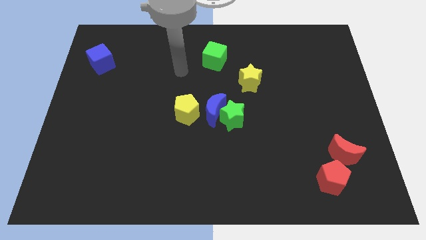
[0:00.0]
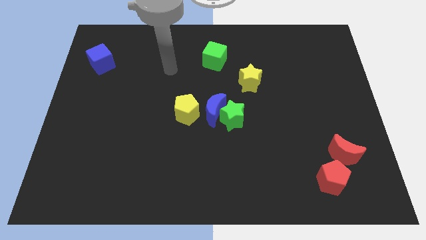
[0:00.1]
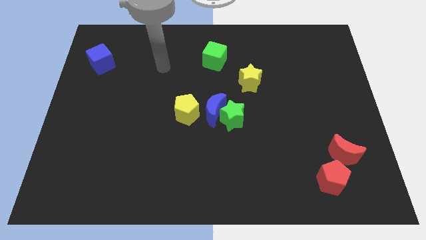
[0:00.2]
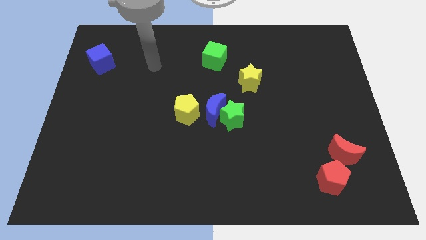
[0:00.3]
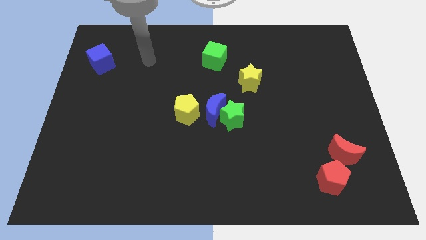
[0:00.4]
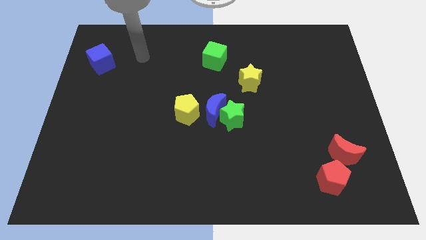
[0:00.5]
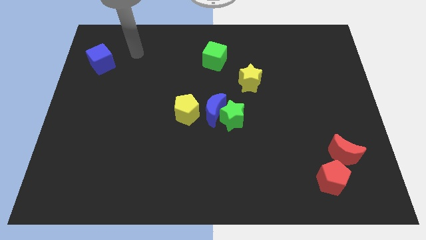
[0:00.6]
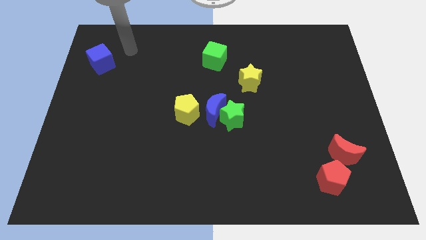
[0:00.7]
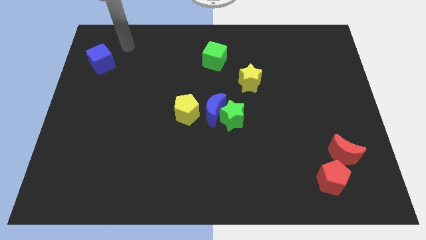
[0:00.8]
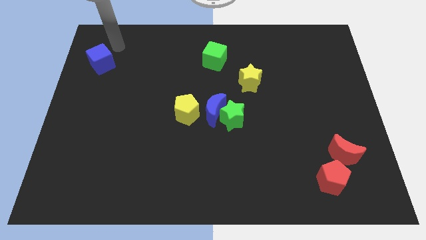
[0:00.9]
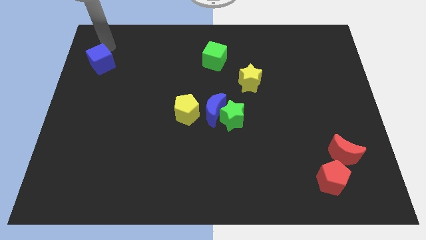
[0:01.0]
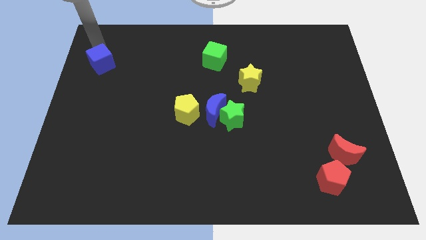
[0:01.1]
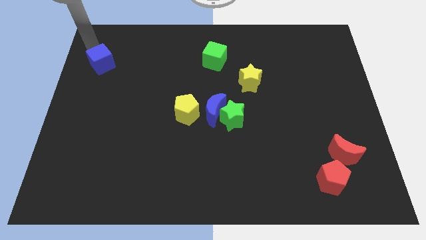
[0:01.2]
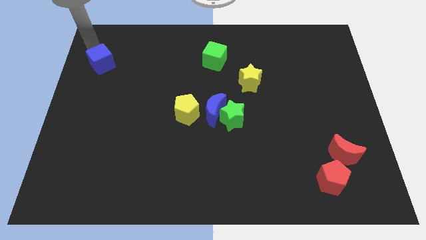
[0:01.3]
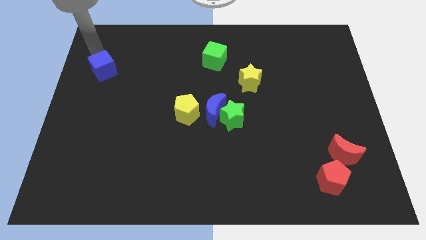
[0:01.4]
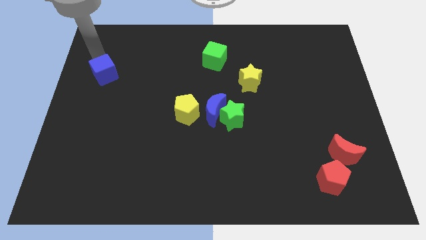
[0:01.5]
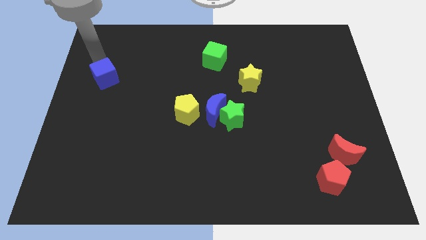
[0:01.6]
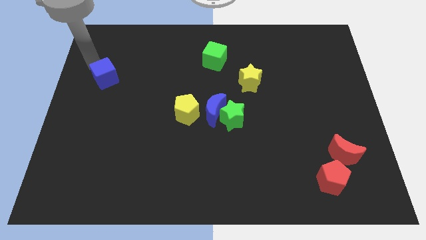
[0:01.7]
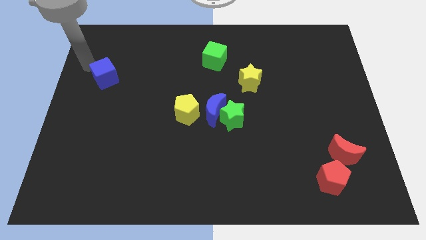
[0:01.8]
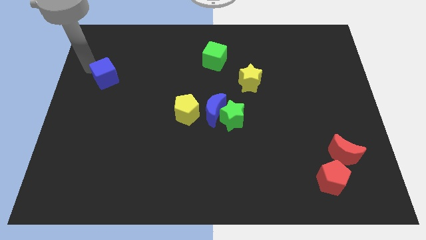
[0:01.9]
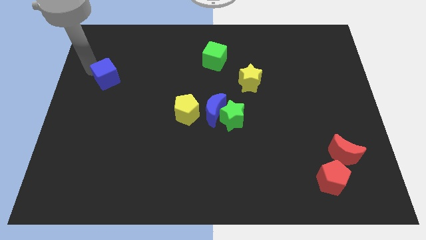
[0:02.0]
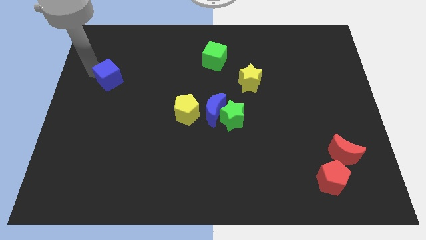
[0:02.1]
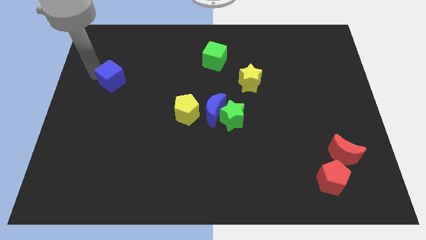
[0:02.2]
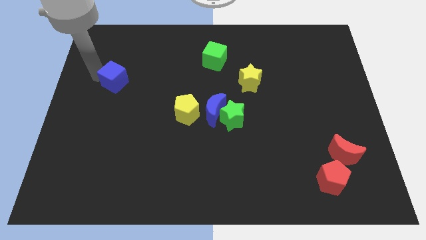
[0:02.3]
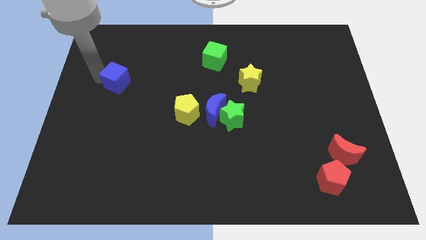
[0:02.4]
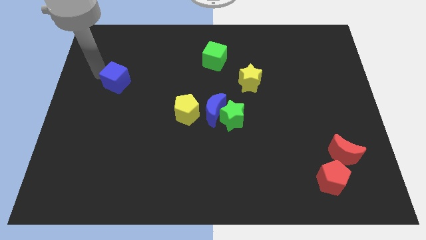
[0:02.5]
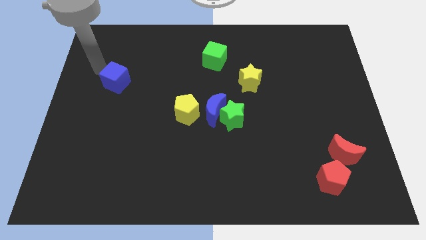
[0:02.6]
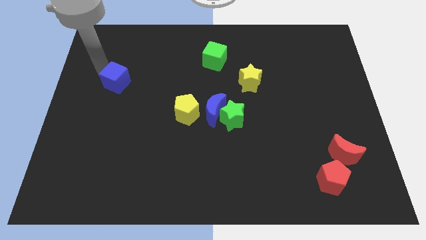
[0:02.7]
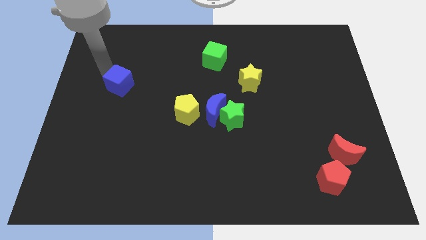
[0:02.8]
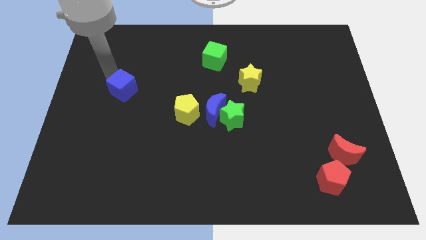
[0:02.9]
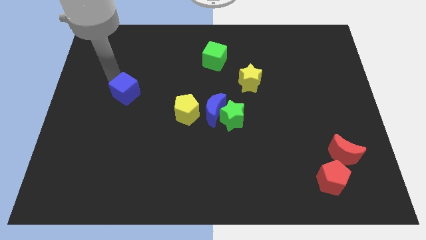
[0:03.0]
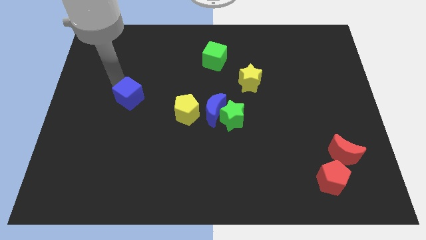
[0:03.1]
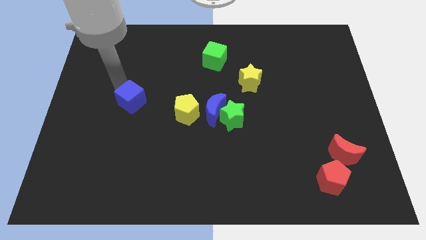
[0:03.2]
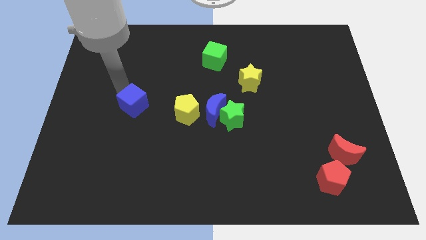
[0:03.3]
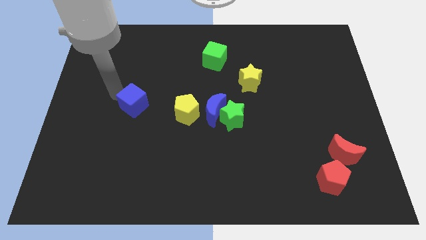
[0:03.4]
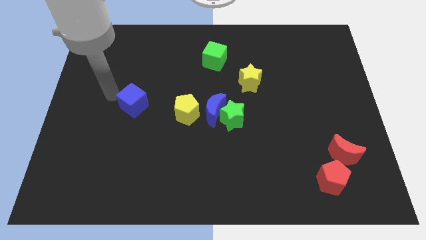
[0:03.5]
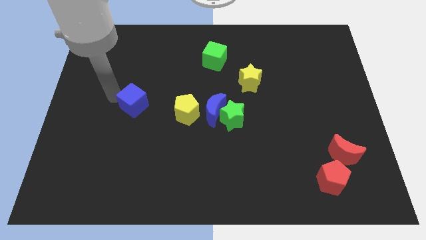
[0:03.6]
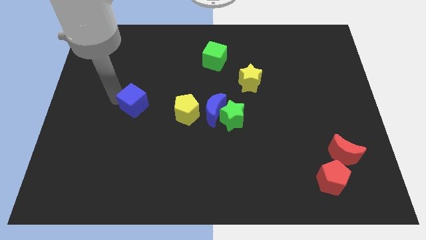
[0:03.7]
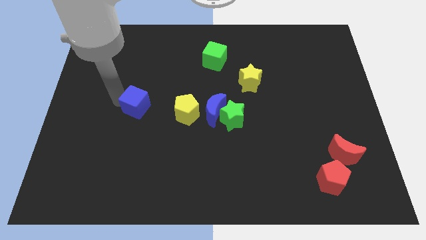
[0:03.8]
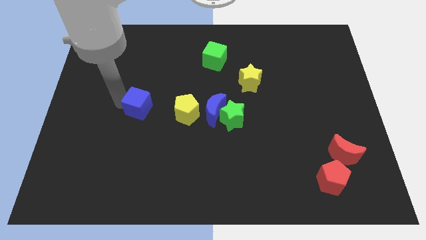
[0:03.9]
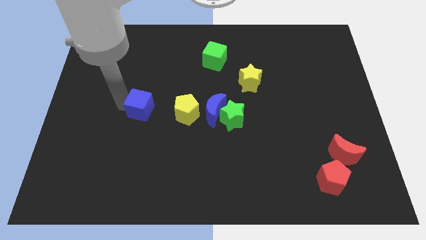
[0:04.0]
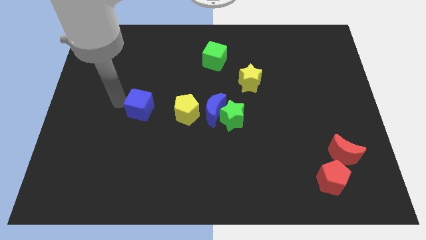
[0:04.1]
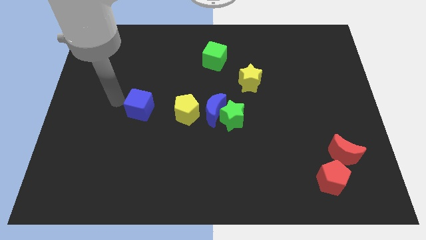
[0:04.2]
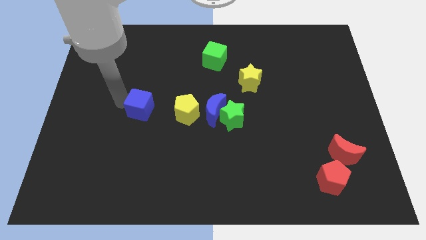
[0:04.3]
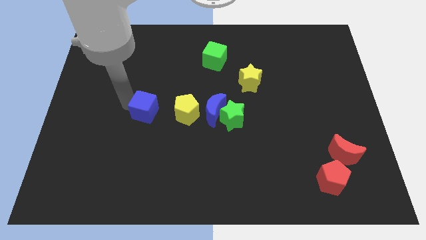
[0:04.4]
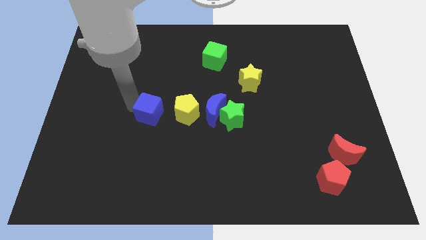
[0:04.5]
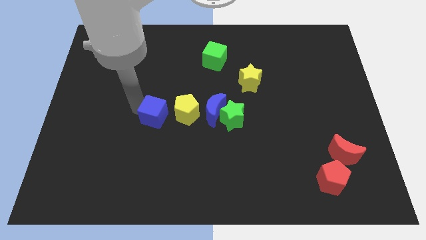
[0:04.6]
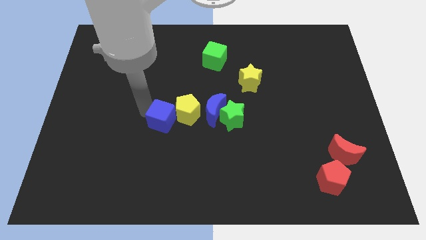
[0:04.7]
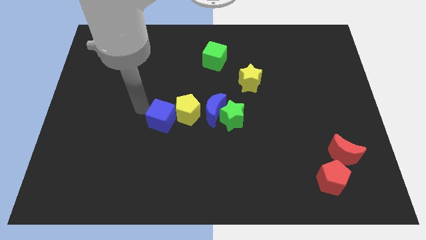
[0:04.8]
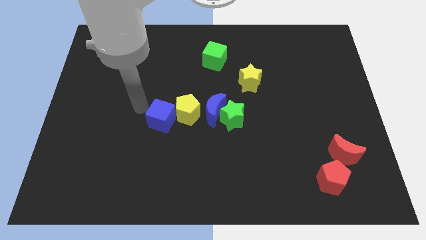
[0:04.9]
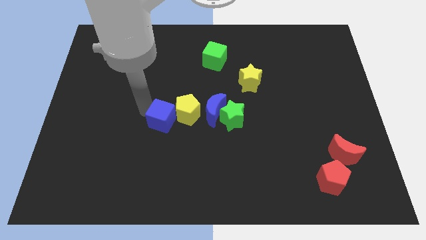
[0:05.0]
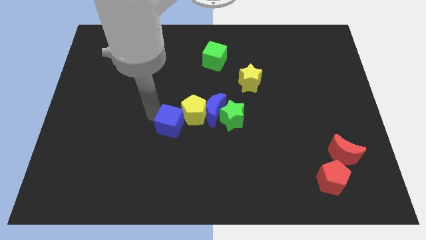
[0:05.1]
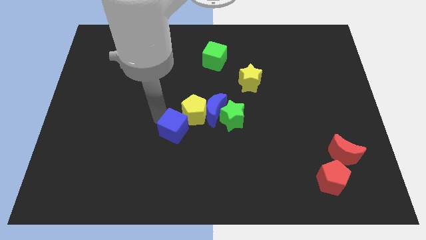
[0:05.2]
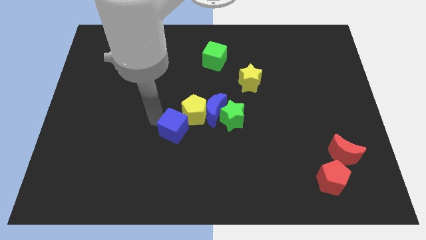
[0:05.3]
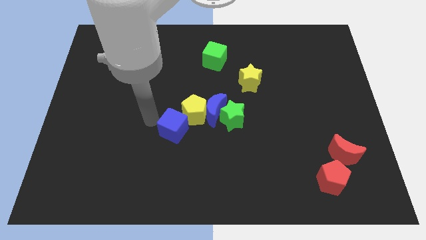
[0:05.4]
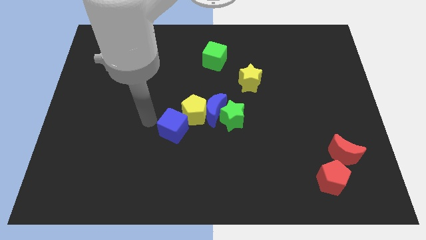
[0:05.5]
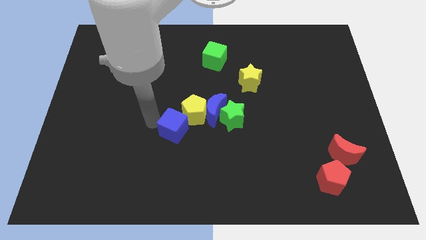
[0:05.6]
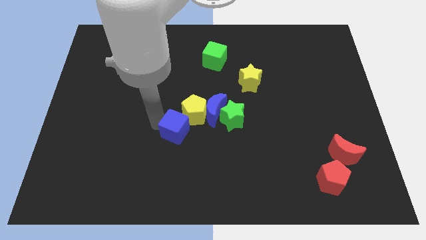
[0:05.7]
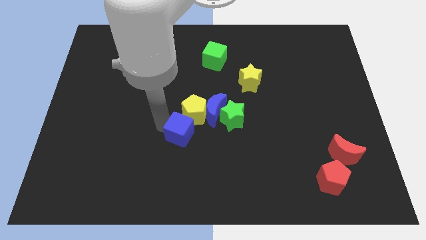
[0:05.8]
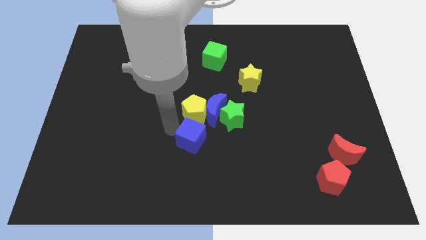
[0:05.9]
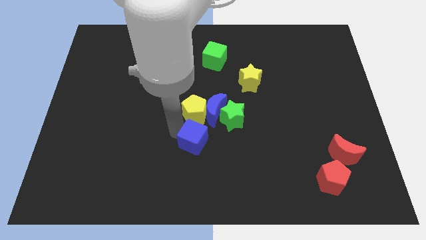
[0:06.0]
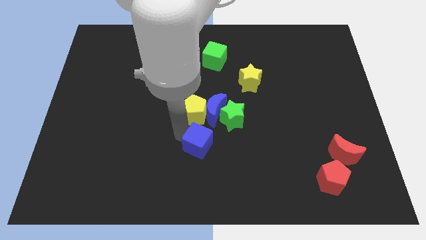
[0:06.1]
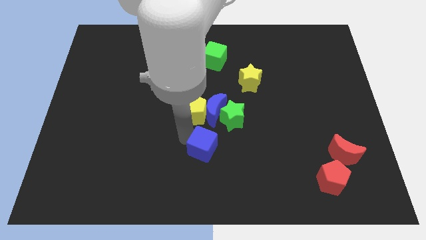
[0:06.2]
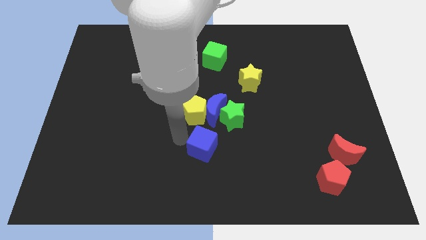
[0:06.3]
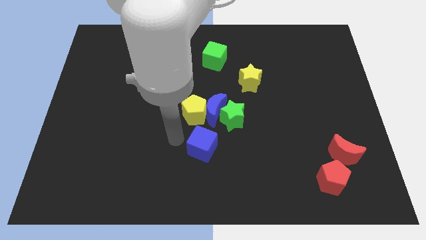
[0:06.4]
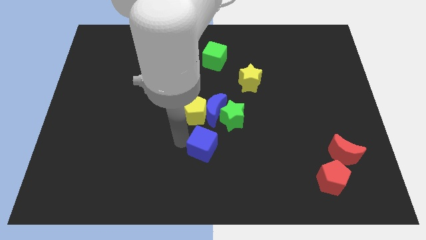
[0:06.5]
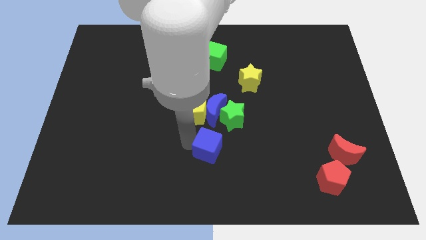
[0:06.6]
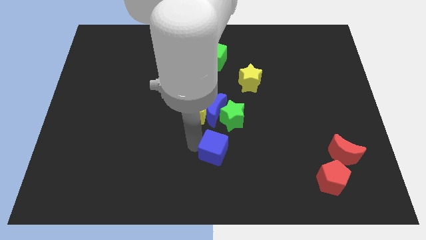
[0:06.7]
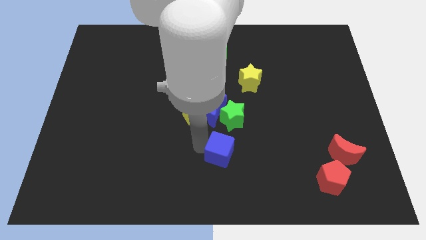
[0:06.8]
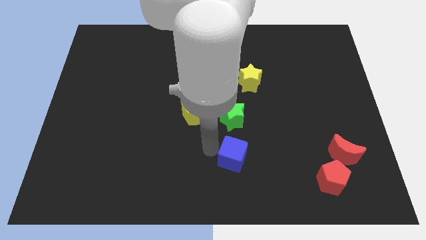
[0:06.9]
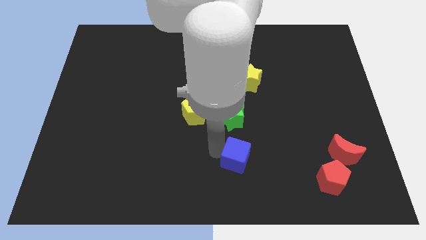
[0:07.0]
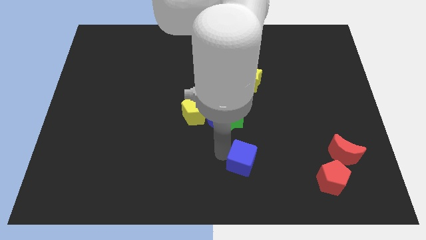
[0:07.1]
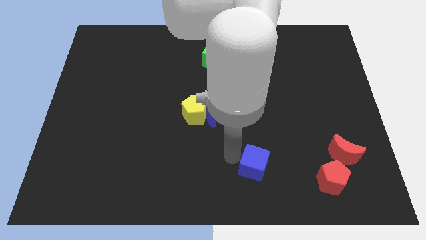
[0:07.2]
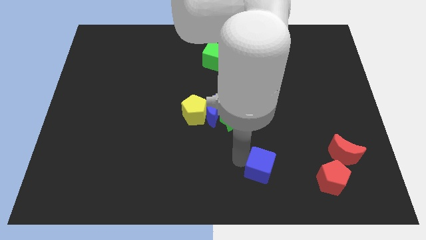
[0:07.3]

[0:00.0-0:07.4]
slide the blue cube just left of the red pentagon

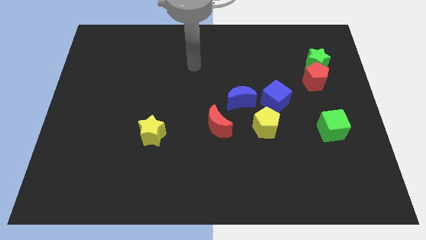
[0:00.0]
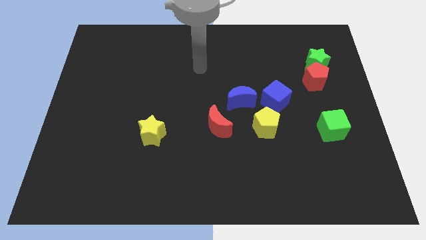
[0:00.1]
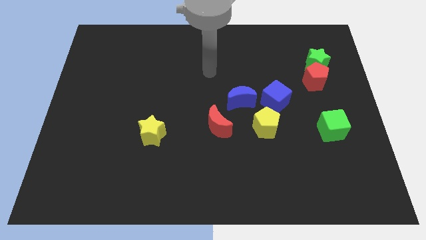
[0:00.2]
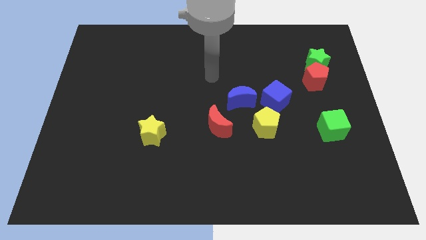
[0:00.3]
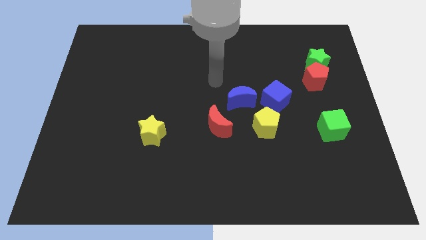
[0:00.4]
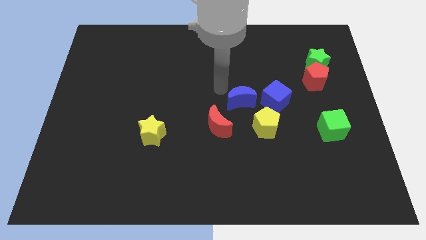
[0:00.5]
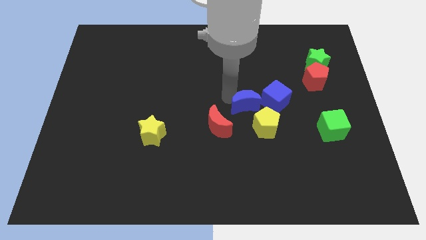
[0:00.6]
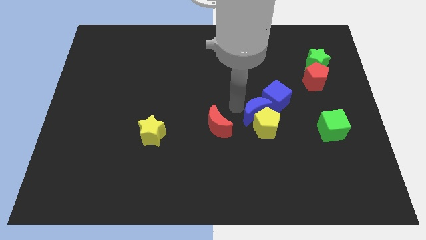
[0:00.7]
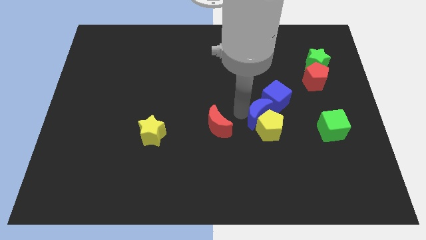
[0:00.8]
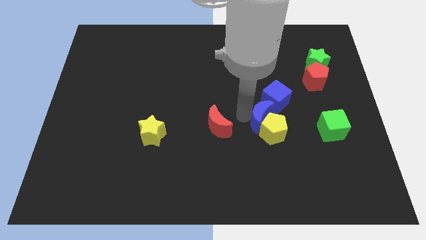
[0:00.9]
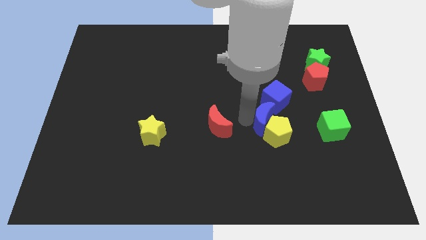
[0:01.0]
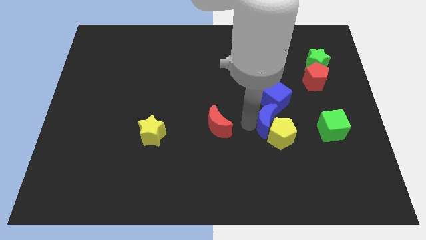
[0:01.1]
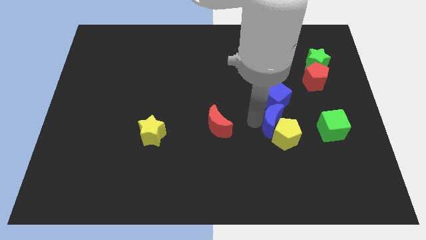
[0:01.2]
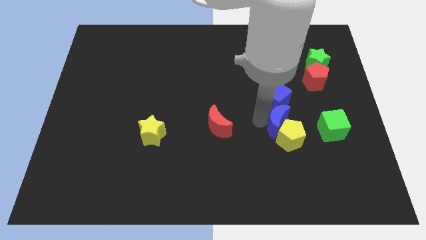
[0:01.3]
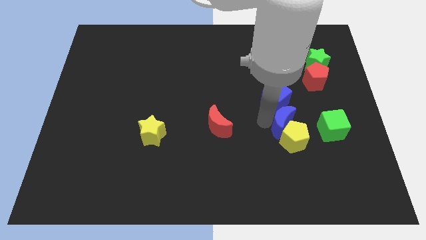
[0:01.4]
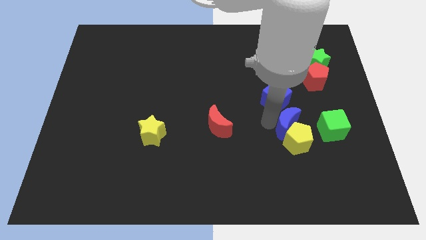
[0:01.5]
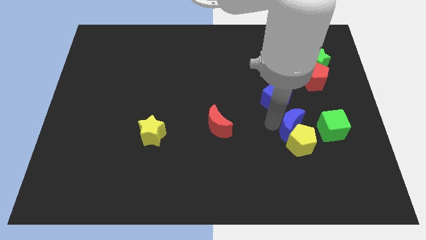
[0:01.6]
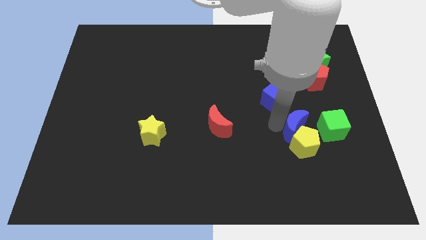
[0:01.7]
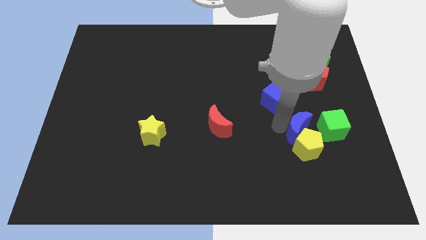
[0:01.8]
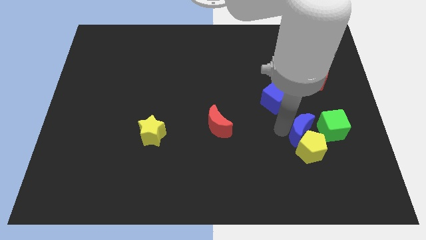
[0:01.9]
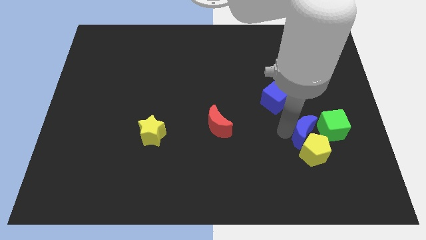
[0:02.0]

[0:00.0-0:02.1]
push the yellow pentagon to the bottom of the green cube
